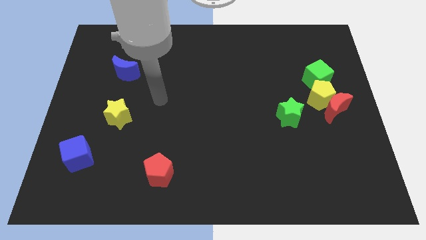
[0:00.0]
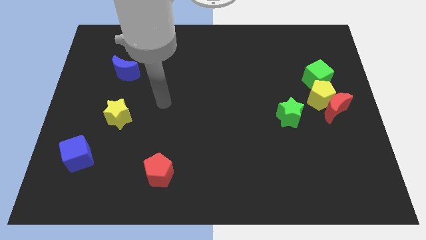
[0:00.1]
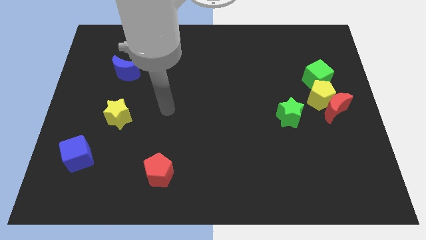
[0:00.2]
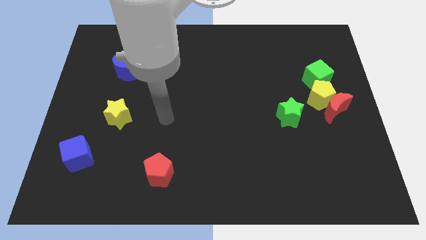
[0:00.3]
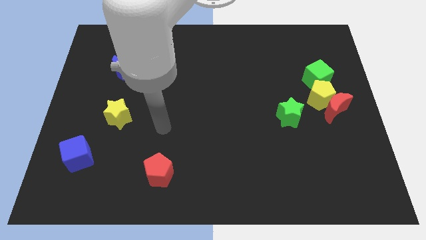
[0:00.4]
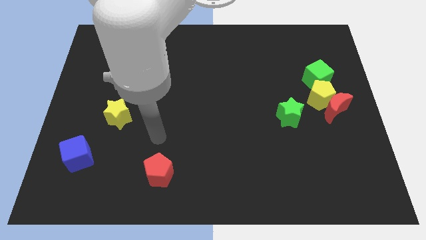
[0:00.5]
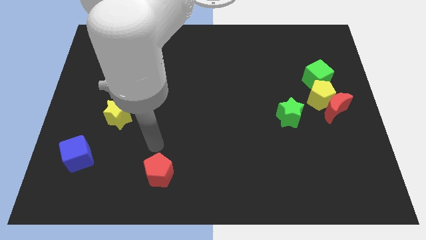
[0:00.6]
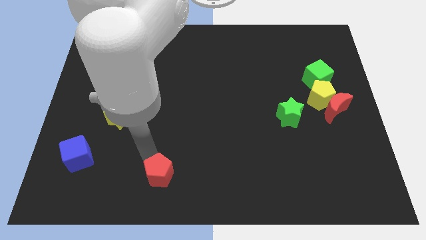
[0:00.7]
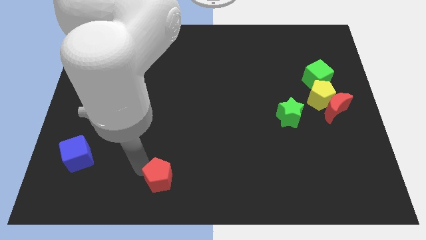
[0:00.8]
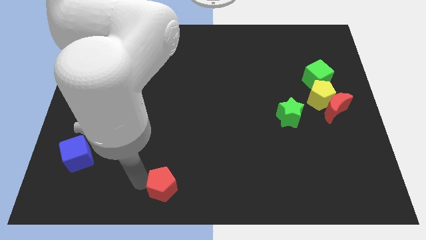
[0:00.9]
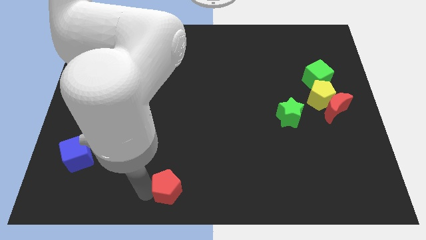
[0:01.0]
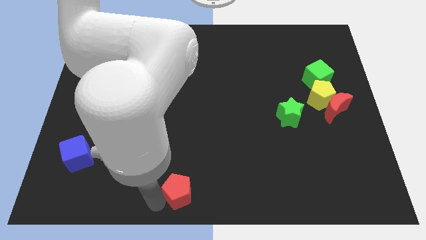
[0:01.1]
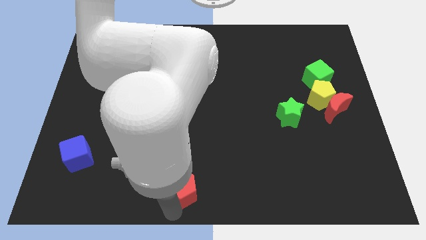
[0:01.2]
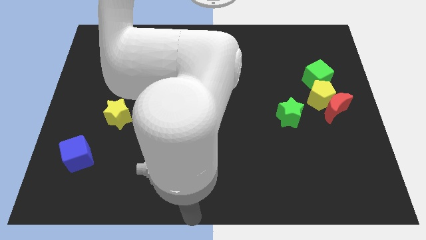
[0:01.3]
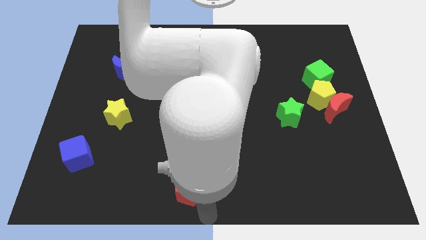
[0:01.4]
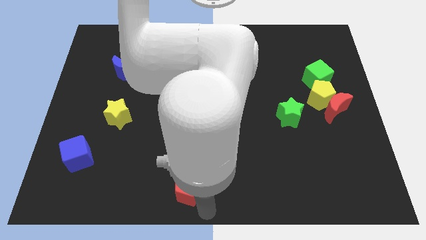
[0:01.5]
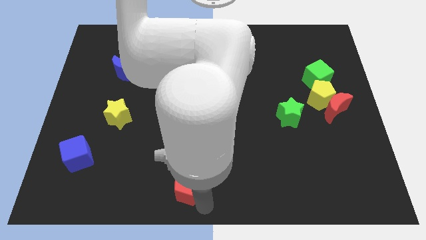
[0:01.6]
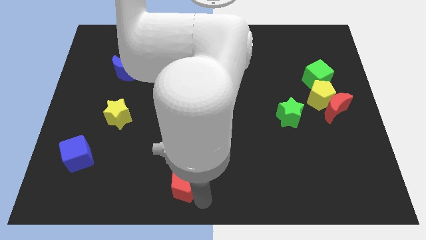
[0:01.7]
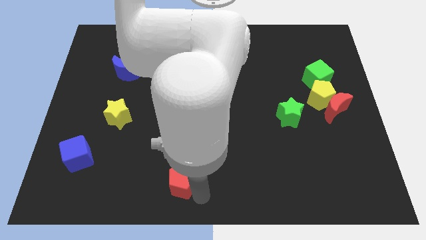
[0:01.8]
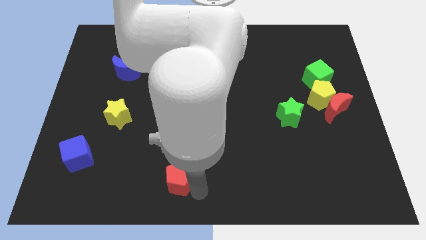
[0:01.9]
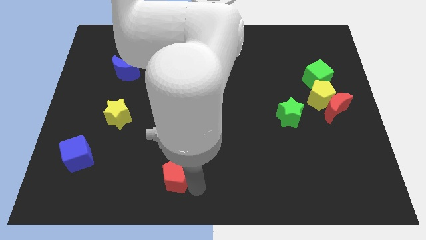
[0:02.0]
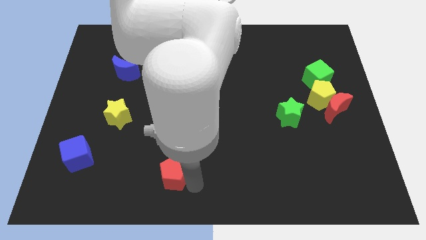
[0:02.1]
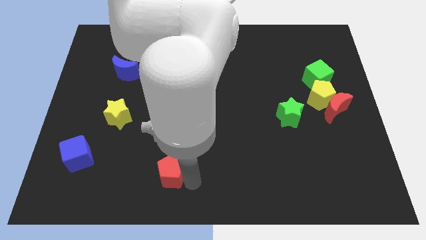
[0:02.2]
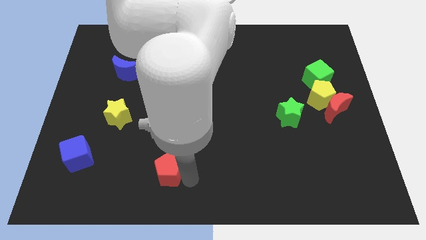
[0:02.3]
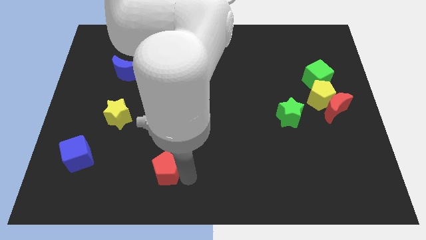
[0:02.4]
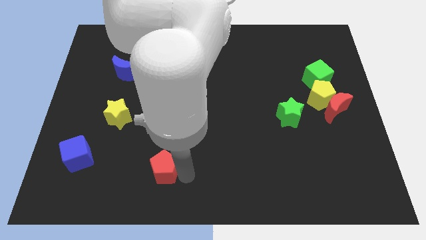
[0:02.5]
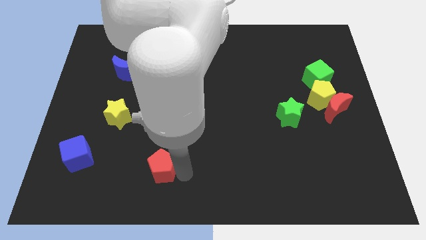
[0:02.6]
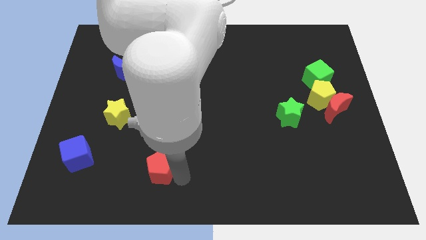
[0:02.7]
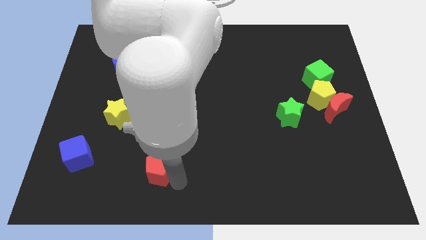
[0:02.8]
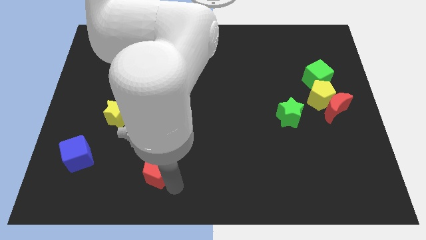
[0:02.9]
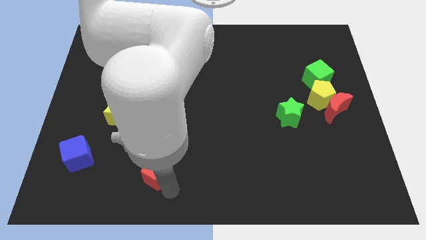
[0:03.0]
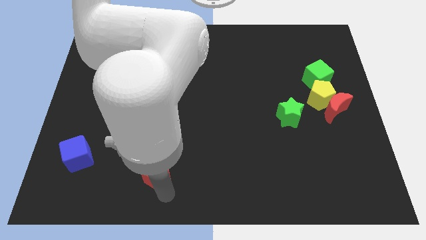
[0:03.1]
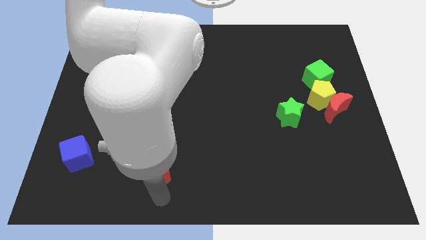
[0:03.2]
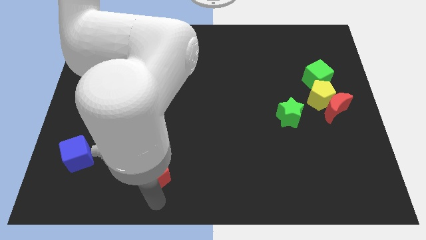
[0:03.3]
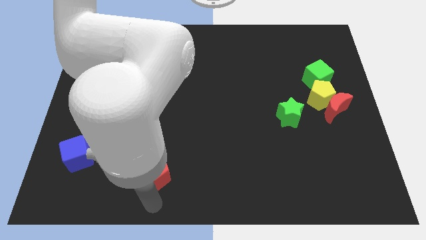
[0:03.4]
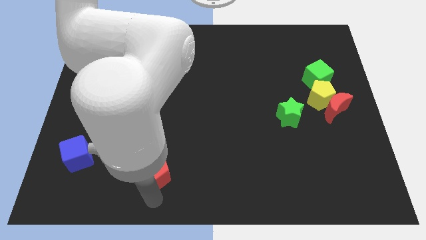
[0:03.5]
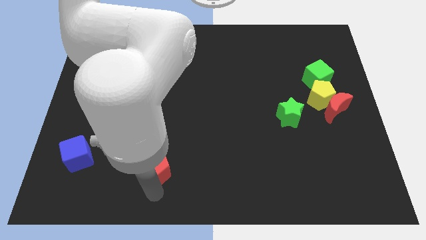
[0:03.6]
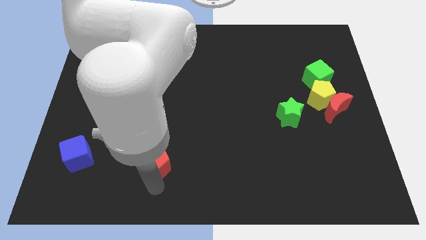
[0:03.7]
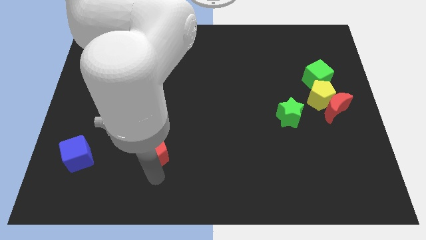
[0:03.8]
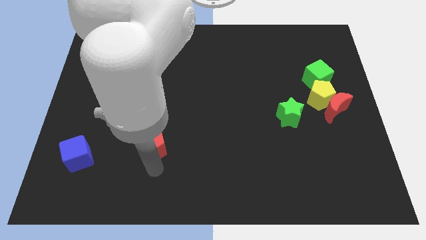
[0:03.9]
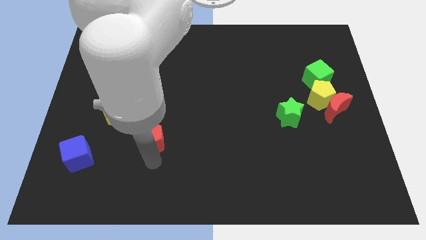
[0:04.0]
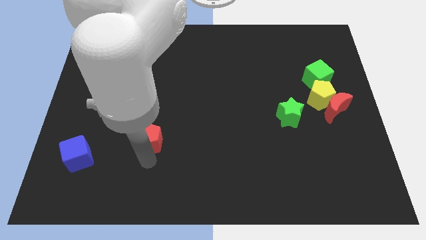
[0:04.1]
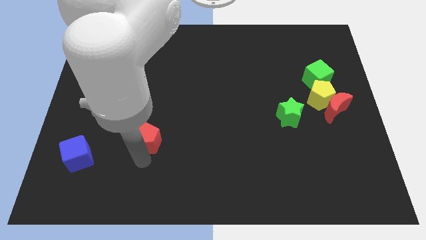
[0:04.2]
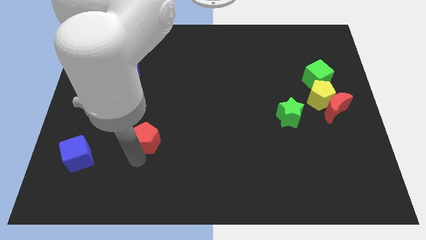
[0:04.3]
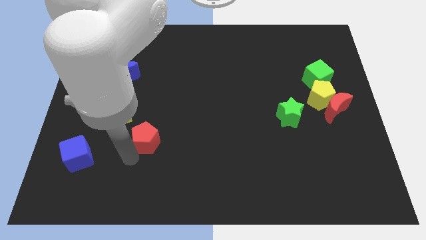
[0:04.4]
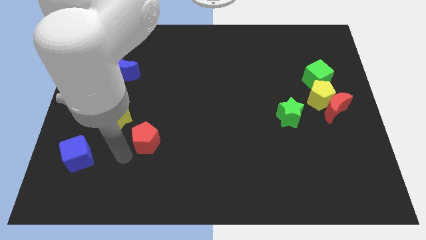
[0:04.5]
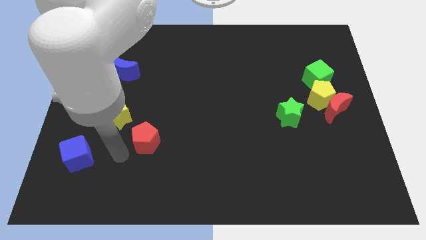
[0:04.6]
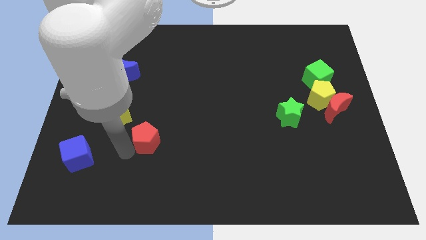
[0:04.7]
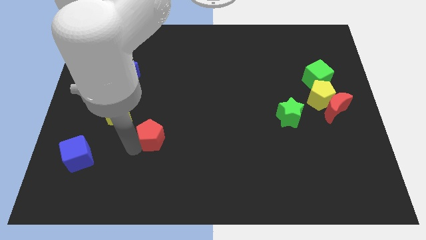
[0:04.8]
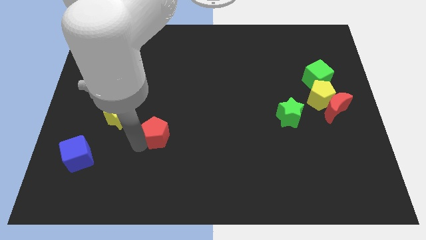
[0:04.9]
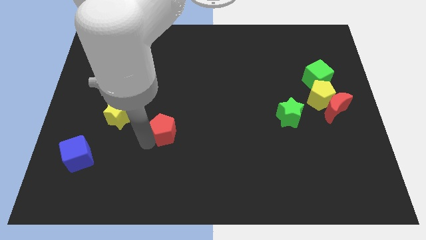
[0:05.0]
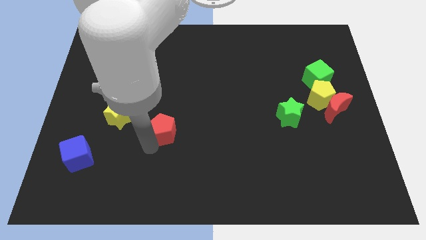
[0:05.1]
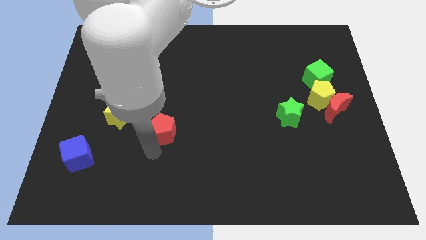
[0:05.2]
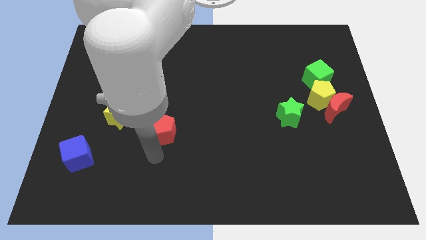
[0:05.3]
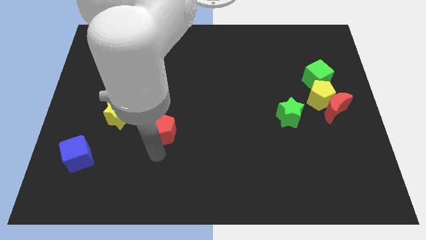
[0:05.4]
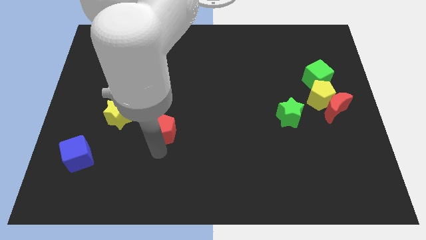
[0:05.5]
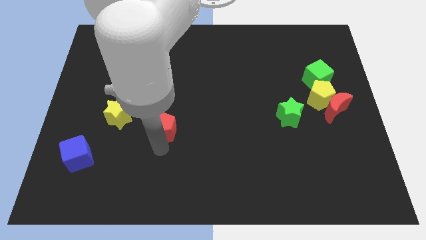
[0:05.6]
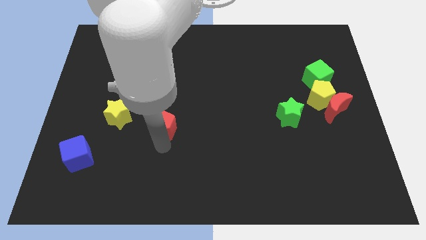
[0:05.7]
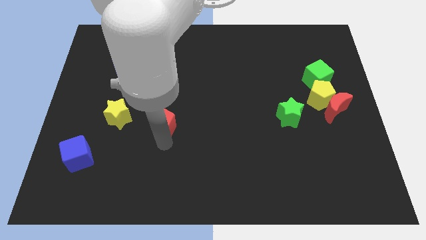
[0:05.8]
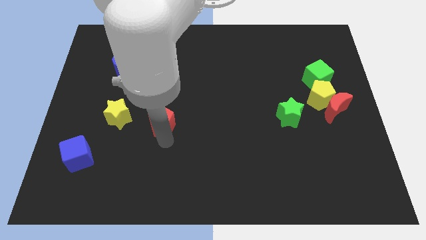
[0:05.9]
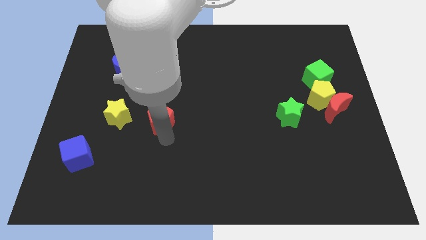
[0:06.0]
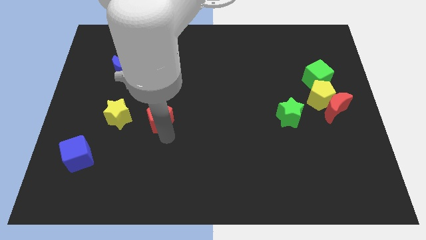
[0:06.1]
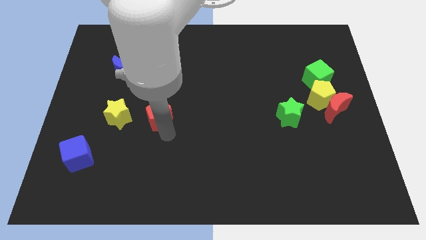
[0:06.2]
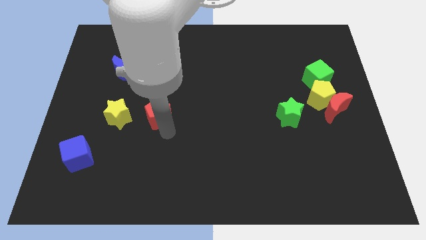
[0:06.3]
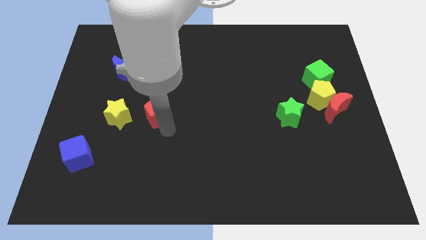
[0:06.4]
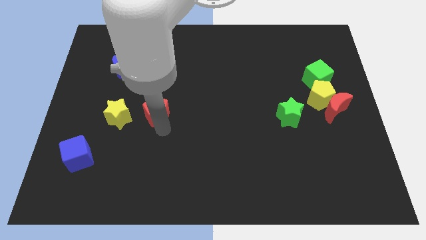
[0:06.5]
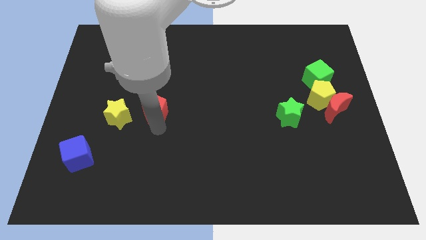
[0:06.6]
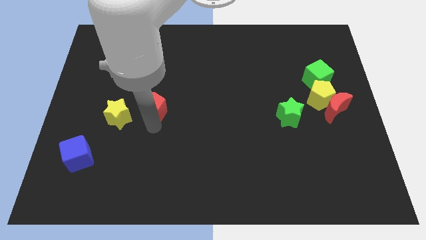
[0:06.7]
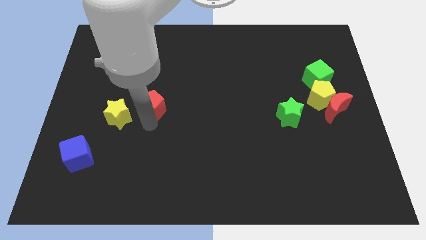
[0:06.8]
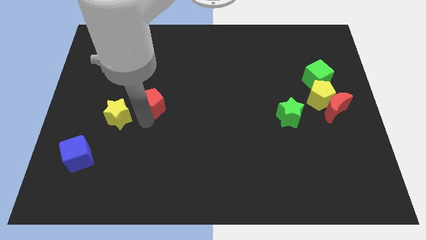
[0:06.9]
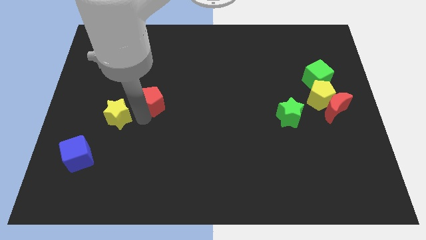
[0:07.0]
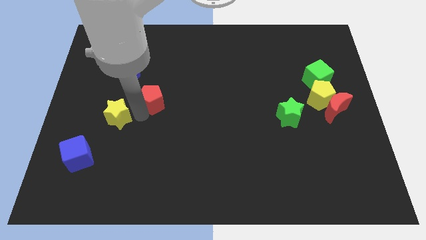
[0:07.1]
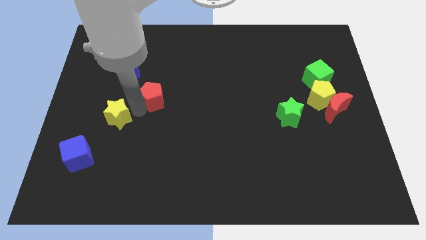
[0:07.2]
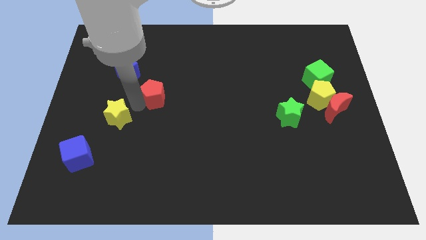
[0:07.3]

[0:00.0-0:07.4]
move the red pentagon upwards

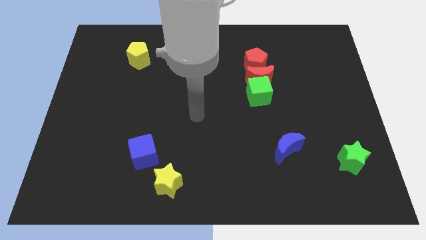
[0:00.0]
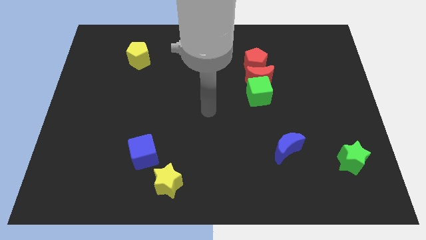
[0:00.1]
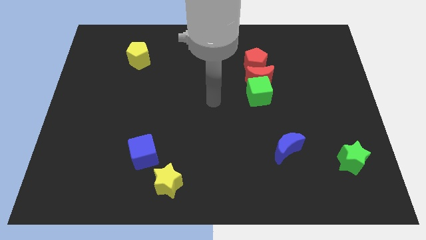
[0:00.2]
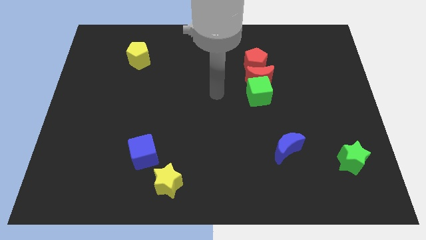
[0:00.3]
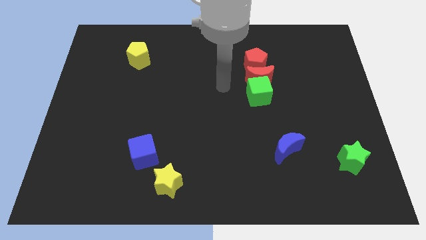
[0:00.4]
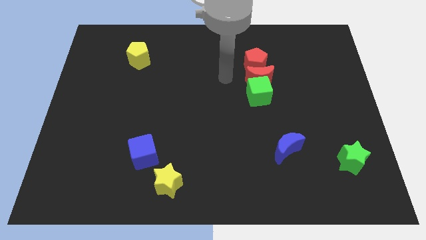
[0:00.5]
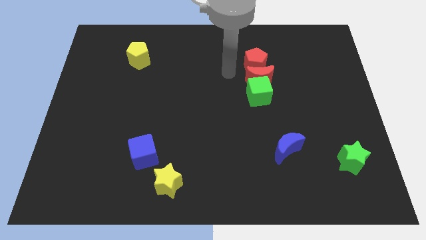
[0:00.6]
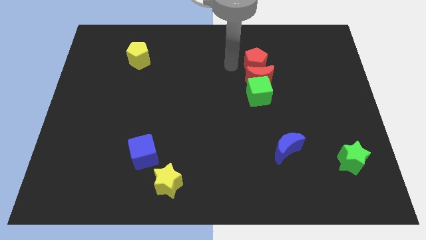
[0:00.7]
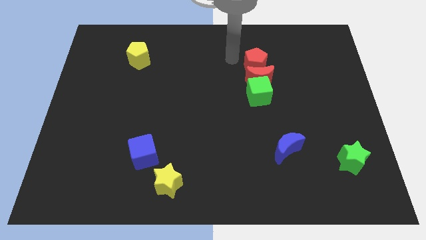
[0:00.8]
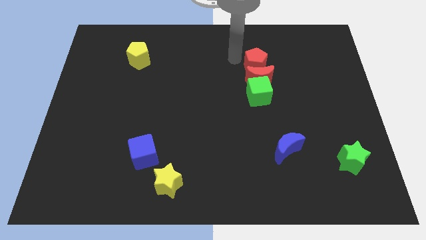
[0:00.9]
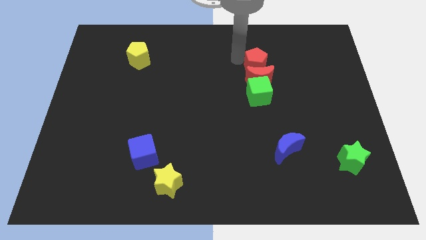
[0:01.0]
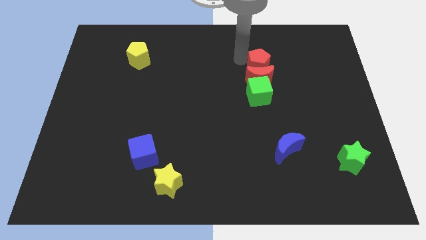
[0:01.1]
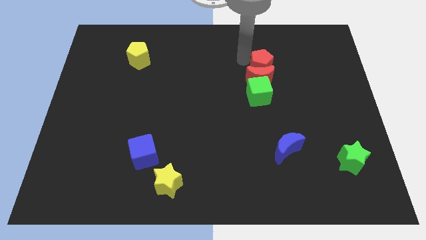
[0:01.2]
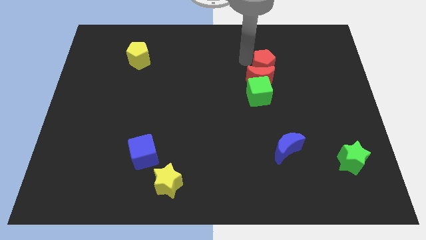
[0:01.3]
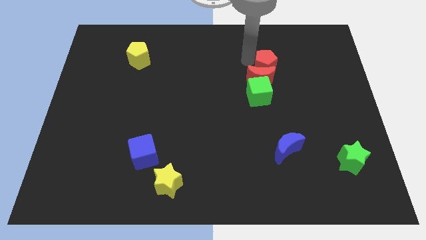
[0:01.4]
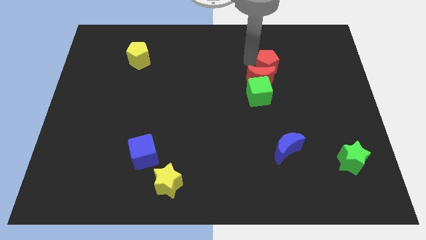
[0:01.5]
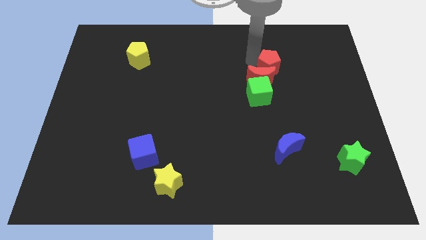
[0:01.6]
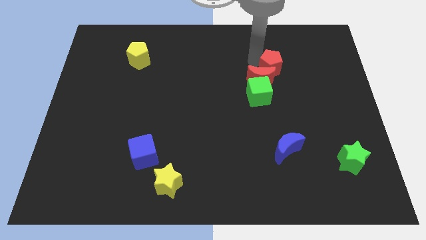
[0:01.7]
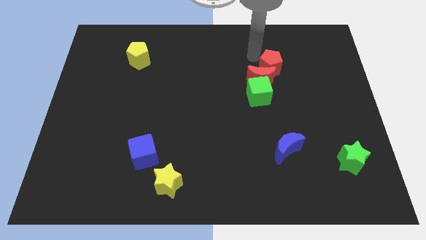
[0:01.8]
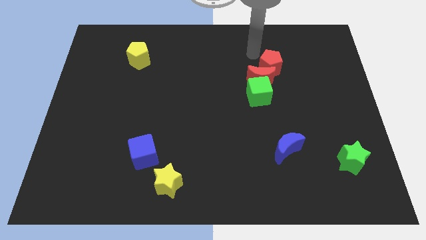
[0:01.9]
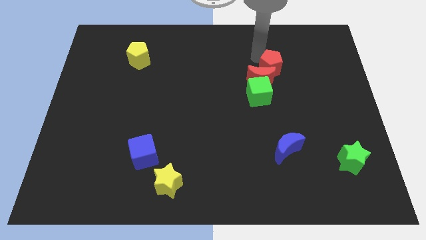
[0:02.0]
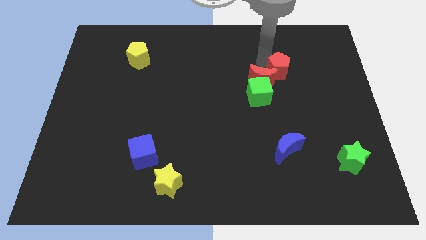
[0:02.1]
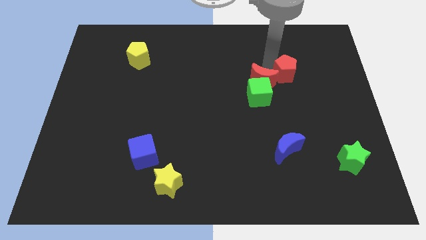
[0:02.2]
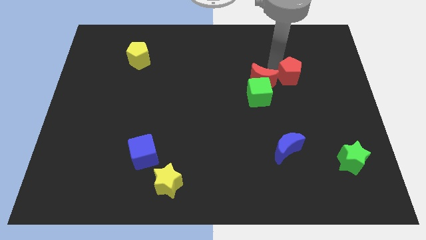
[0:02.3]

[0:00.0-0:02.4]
move the red pentagon diagonally downwards and right a bit
